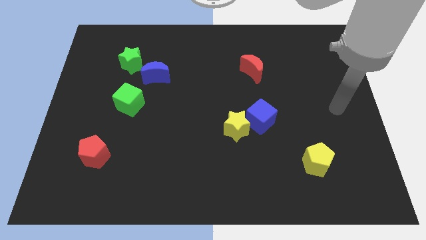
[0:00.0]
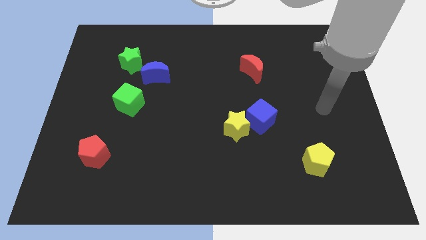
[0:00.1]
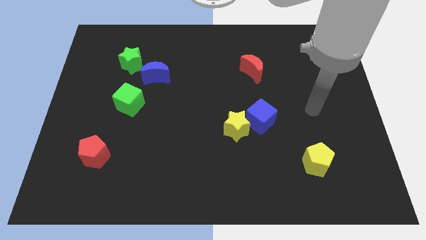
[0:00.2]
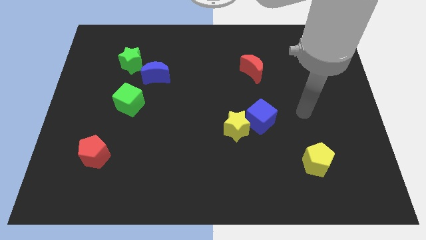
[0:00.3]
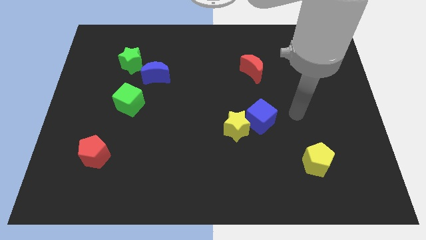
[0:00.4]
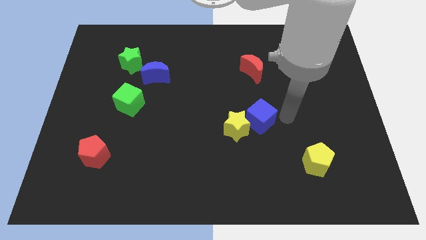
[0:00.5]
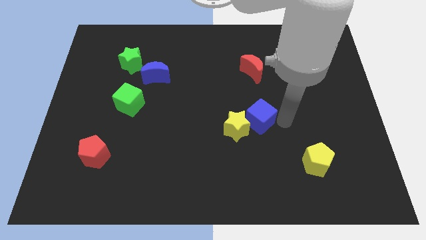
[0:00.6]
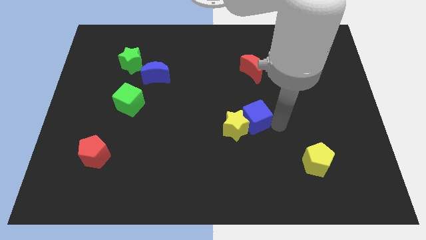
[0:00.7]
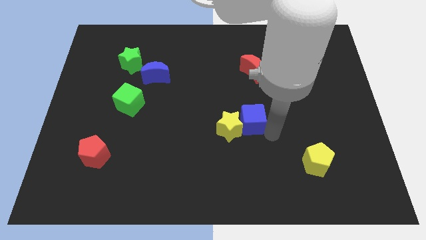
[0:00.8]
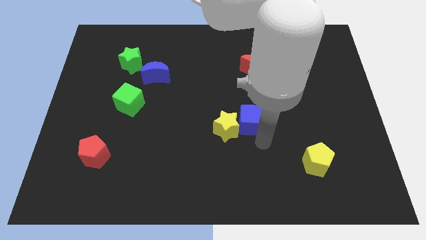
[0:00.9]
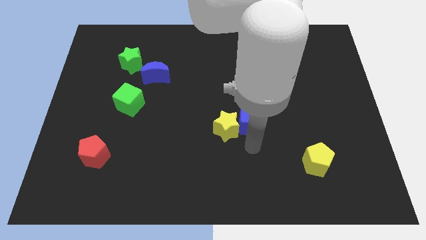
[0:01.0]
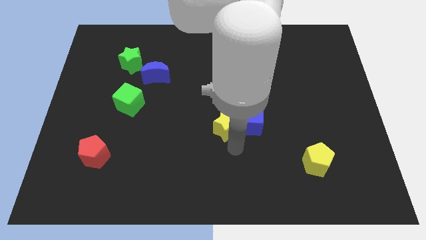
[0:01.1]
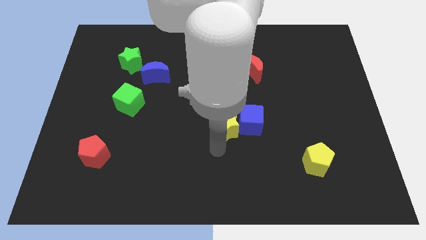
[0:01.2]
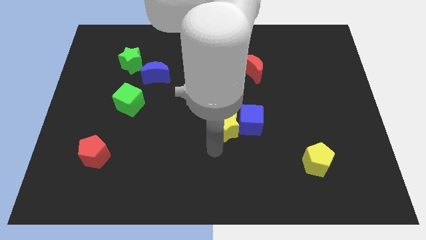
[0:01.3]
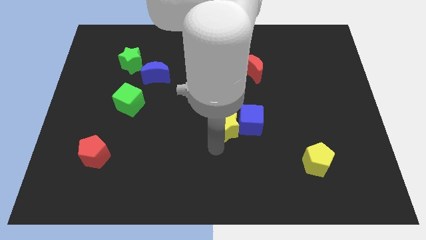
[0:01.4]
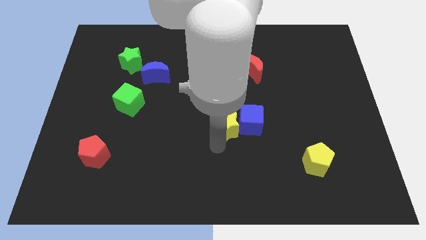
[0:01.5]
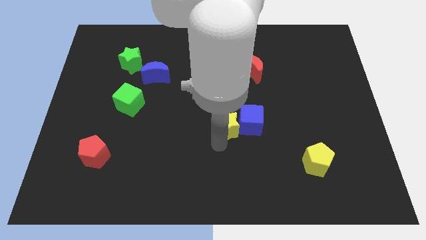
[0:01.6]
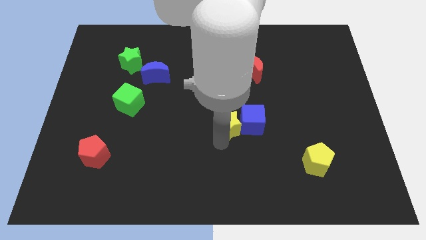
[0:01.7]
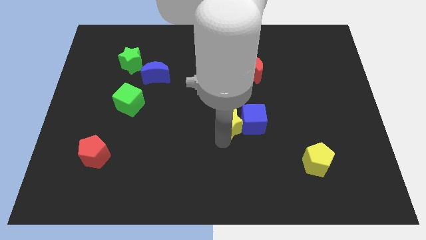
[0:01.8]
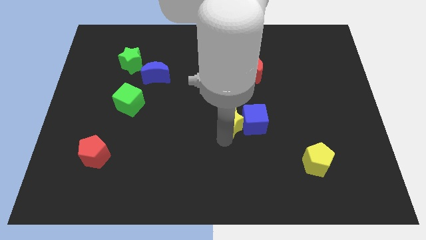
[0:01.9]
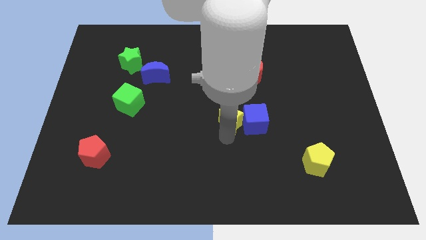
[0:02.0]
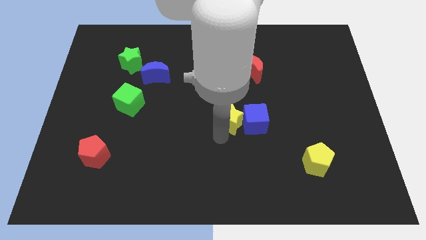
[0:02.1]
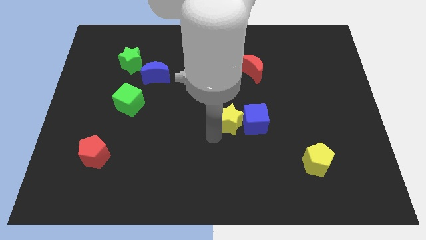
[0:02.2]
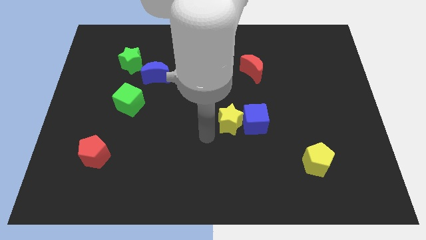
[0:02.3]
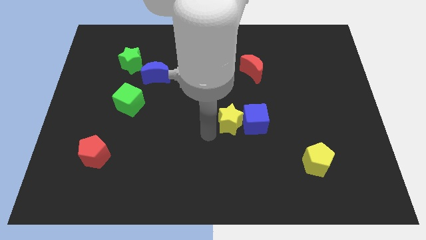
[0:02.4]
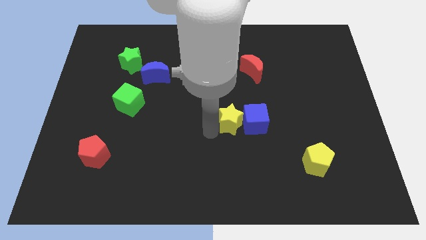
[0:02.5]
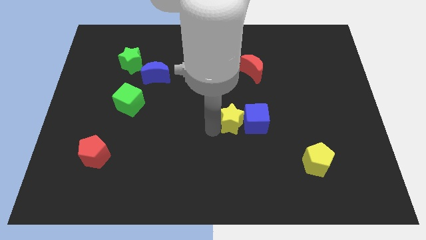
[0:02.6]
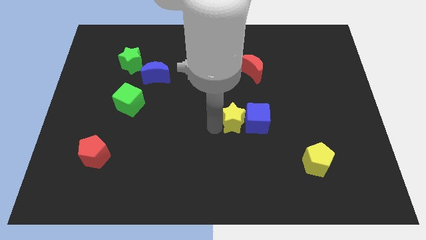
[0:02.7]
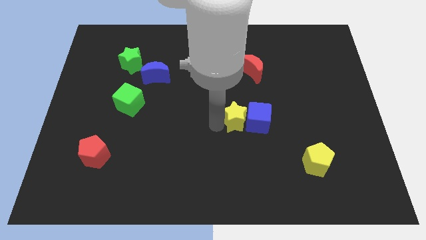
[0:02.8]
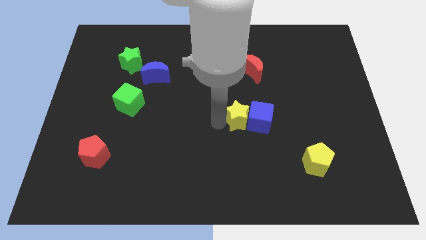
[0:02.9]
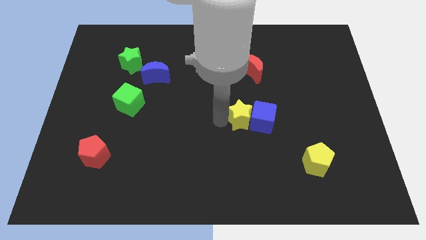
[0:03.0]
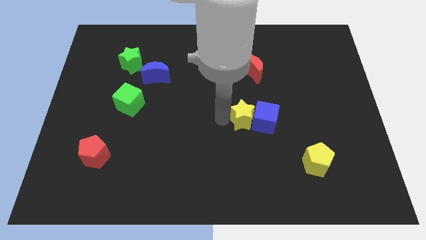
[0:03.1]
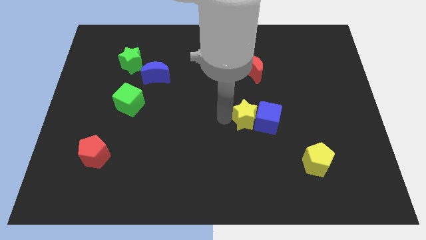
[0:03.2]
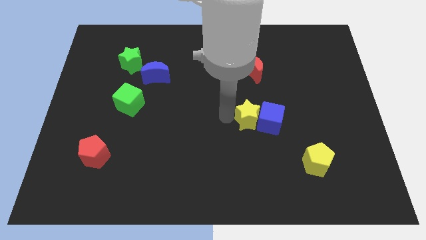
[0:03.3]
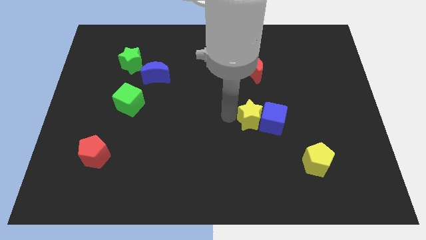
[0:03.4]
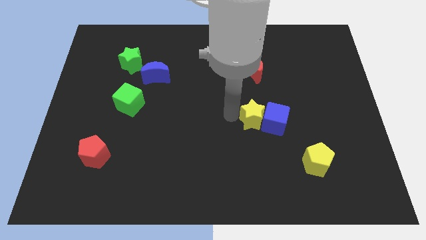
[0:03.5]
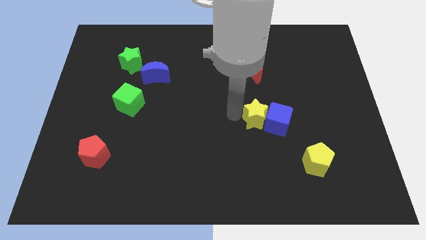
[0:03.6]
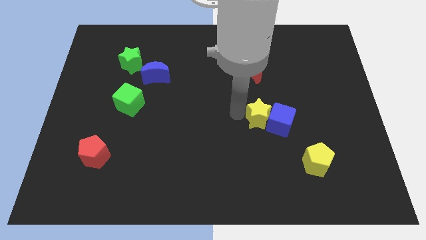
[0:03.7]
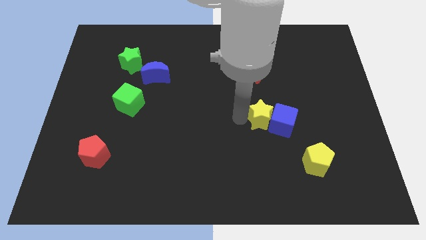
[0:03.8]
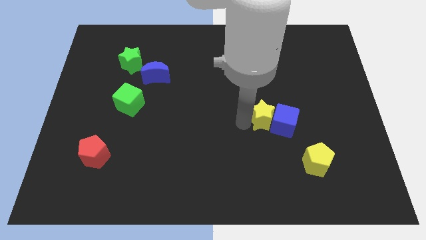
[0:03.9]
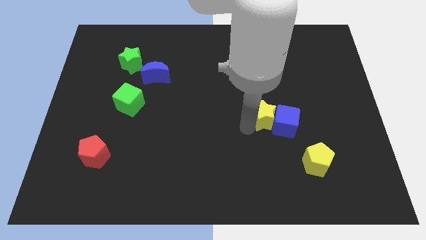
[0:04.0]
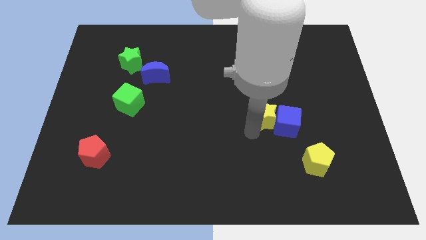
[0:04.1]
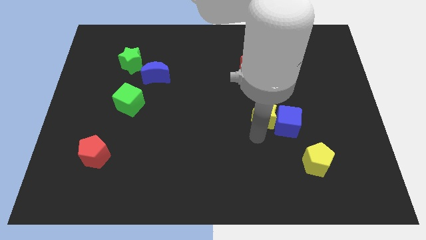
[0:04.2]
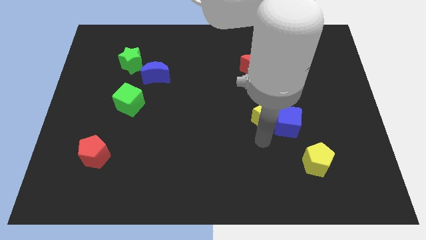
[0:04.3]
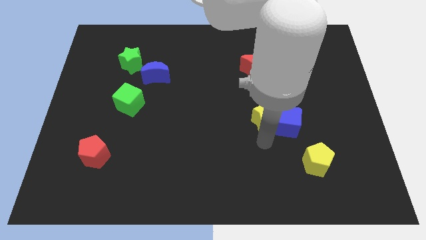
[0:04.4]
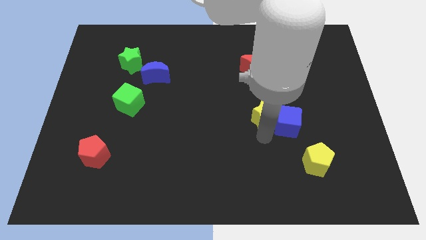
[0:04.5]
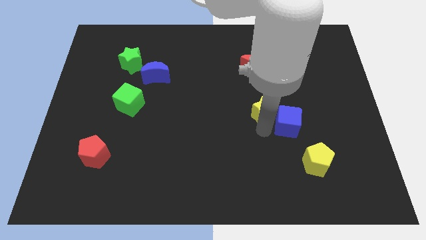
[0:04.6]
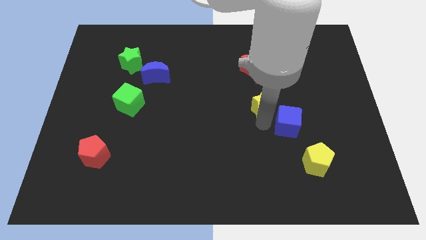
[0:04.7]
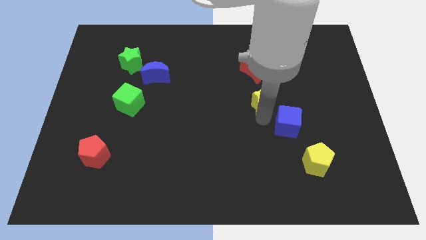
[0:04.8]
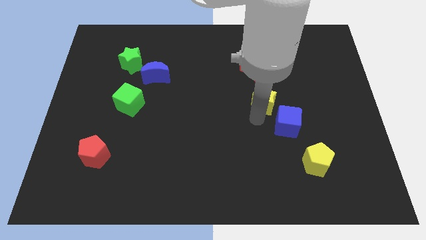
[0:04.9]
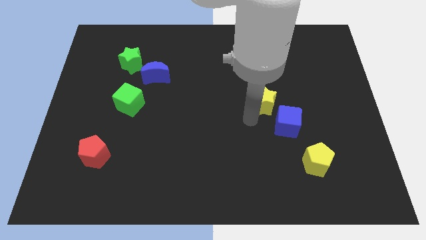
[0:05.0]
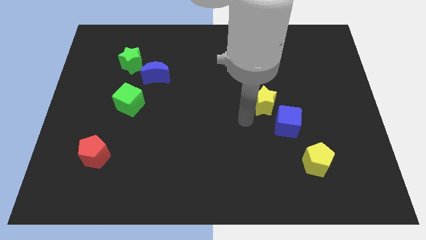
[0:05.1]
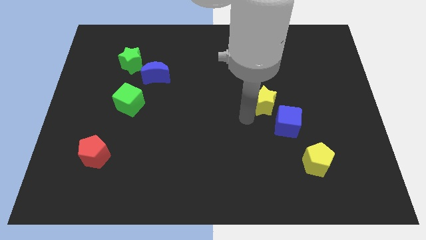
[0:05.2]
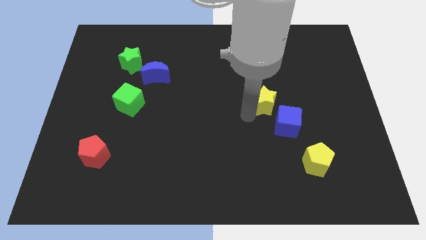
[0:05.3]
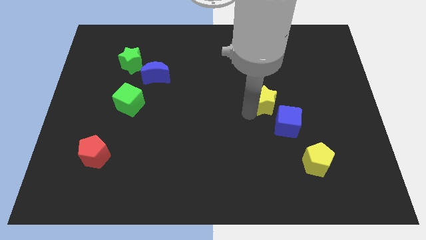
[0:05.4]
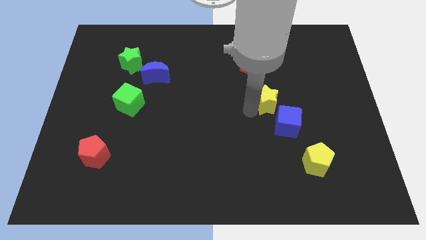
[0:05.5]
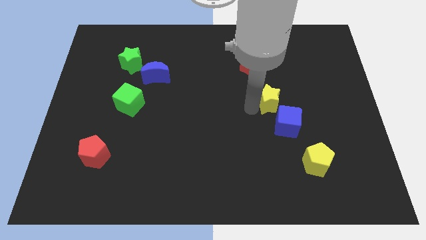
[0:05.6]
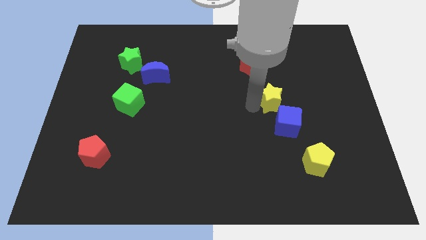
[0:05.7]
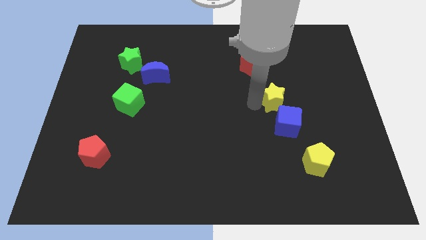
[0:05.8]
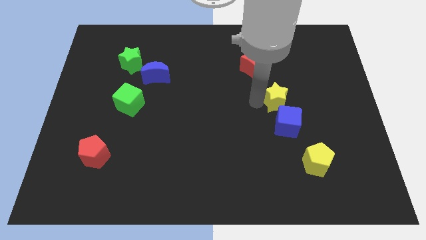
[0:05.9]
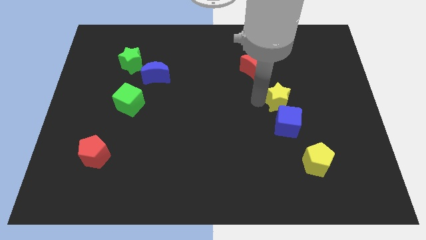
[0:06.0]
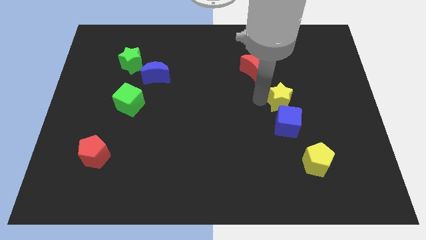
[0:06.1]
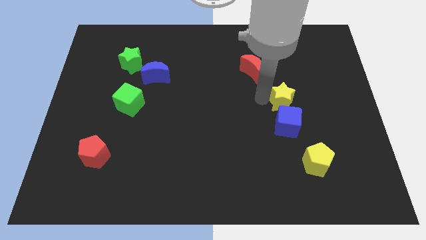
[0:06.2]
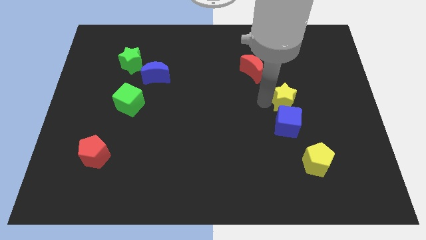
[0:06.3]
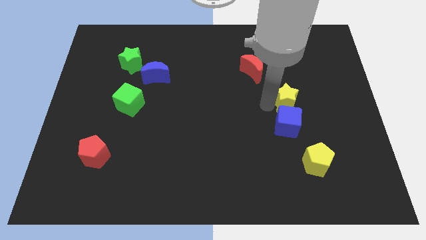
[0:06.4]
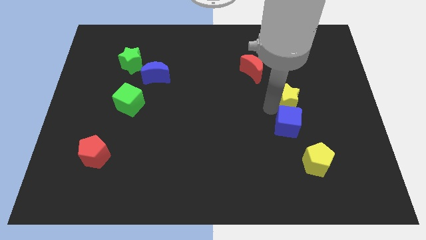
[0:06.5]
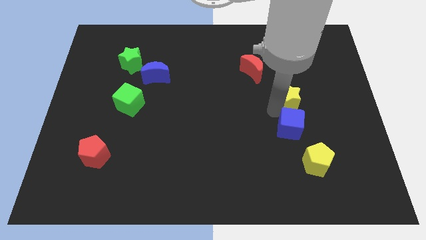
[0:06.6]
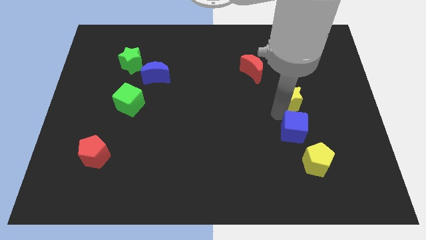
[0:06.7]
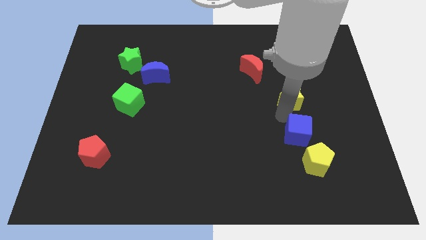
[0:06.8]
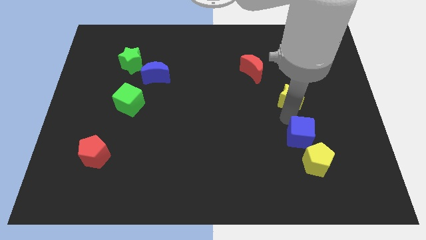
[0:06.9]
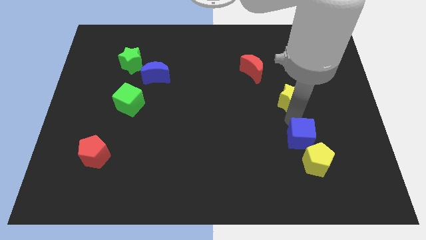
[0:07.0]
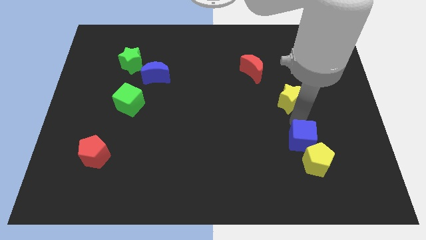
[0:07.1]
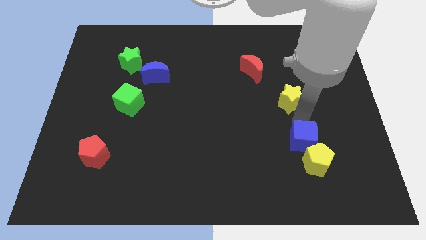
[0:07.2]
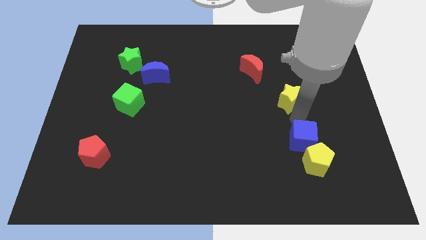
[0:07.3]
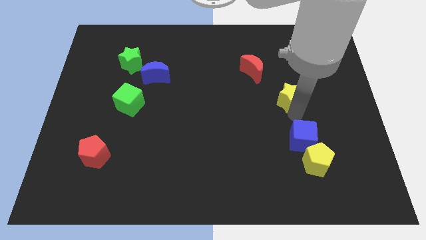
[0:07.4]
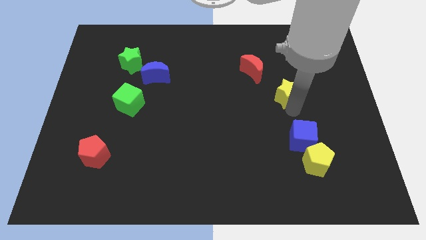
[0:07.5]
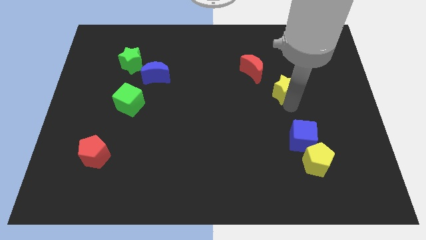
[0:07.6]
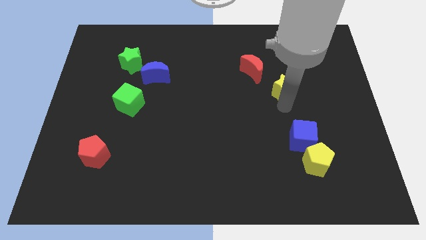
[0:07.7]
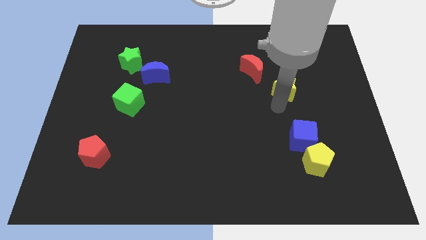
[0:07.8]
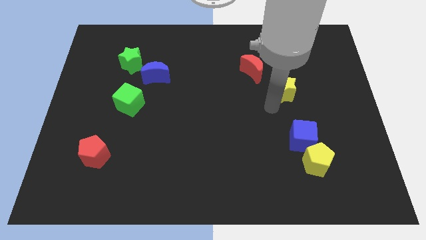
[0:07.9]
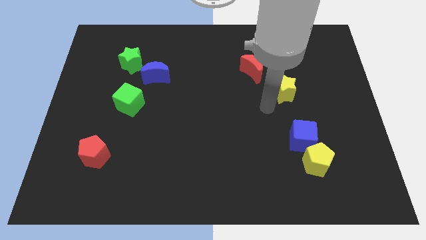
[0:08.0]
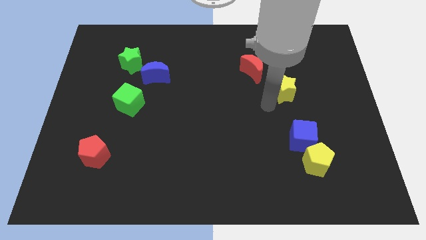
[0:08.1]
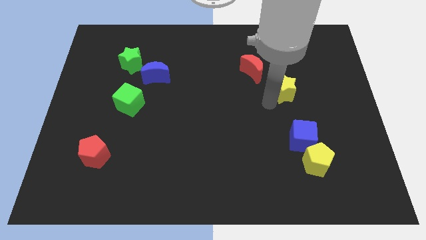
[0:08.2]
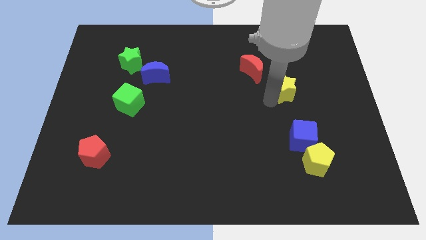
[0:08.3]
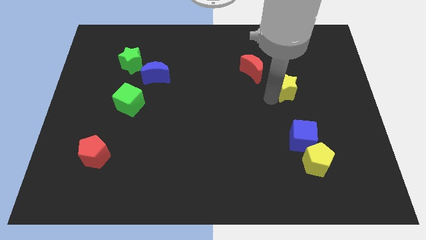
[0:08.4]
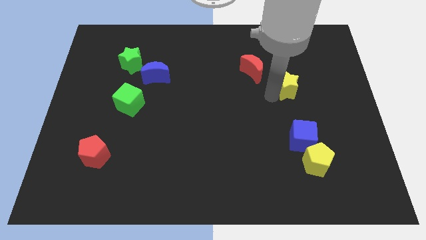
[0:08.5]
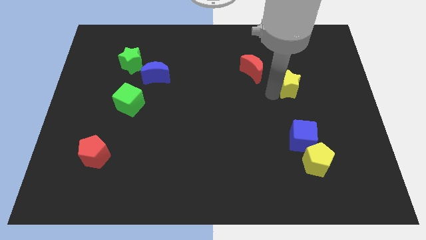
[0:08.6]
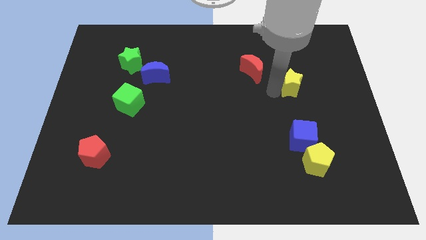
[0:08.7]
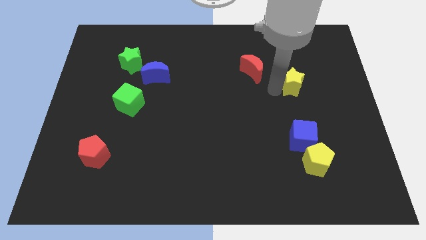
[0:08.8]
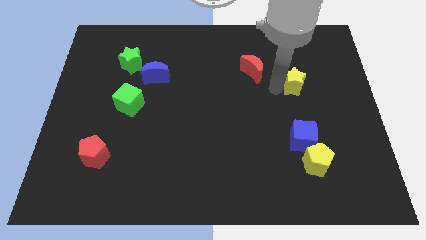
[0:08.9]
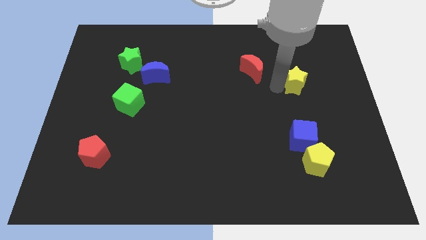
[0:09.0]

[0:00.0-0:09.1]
push the yellow star upwards and to the right diagonally
